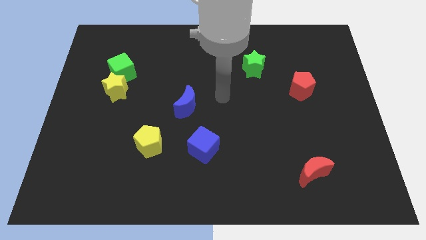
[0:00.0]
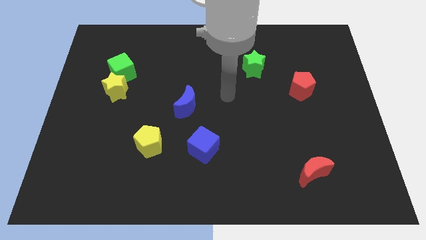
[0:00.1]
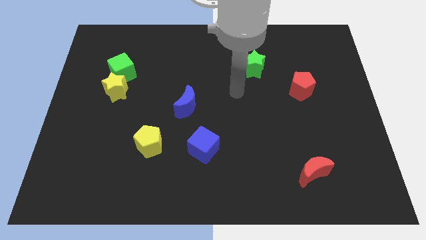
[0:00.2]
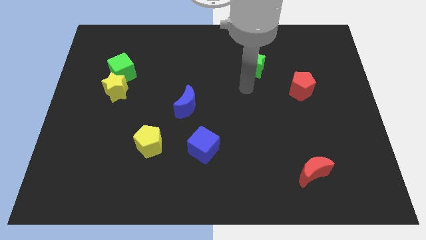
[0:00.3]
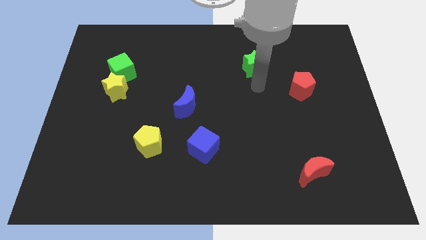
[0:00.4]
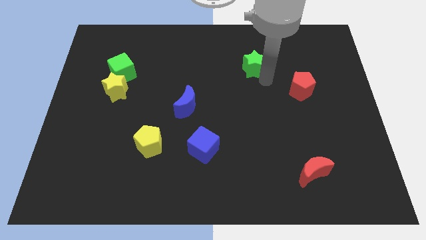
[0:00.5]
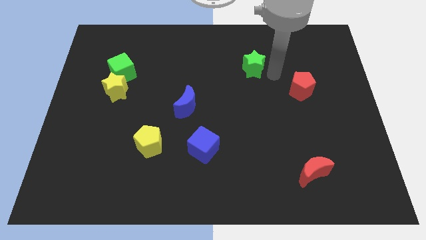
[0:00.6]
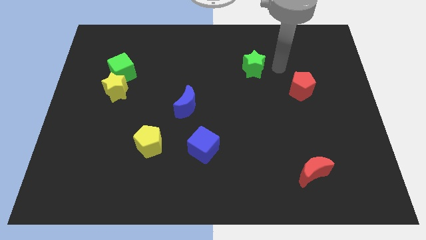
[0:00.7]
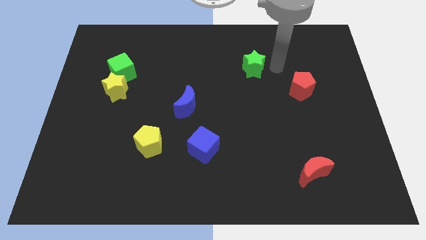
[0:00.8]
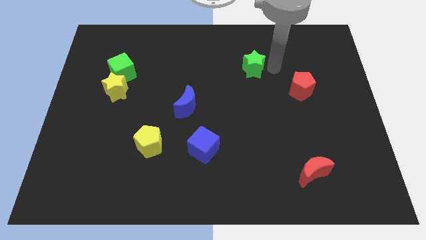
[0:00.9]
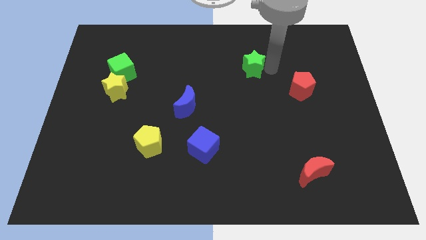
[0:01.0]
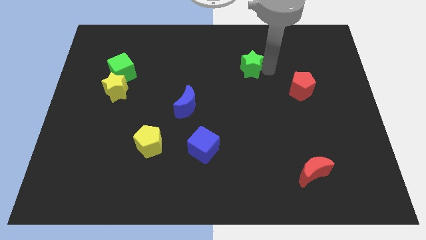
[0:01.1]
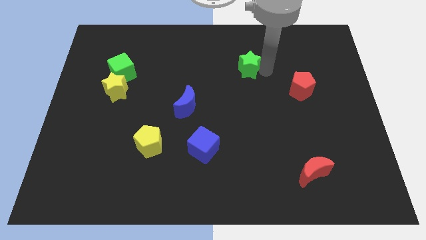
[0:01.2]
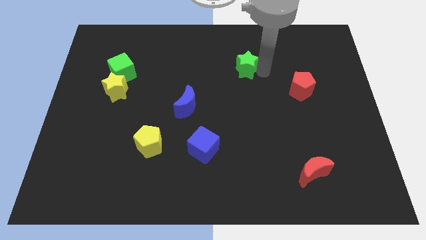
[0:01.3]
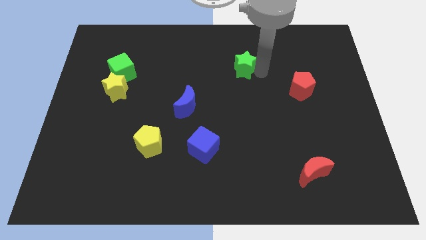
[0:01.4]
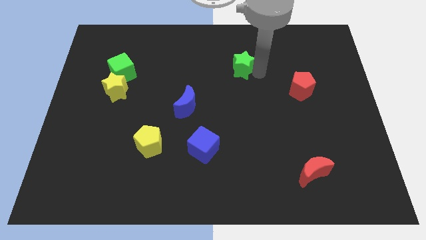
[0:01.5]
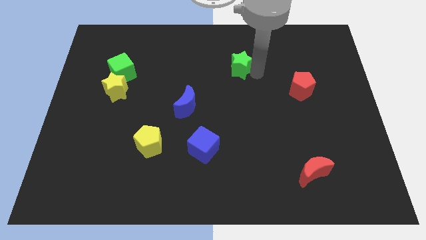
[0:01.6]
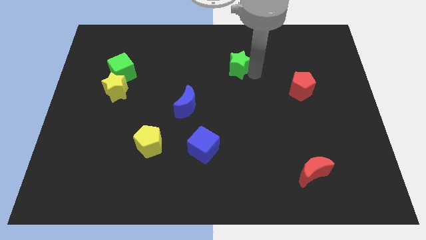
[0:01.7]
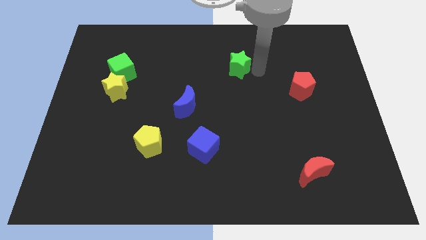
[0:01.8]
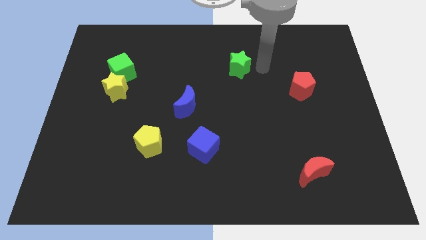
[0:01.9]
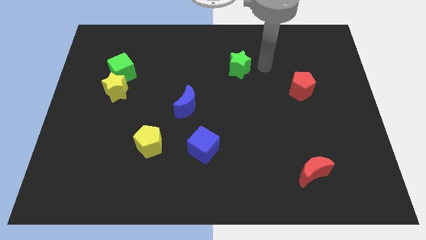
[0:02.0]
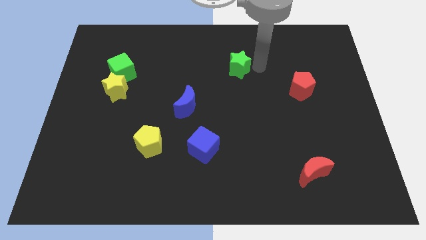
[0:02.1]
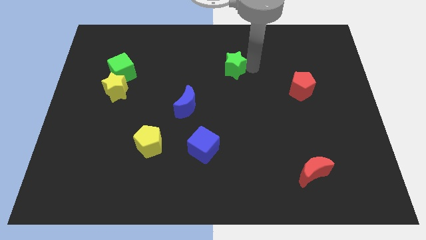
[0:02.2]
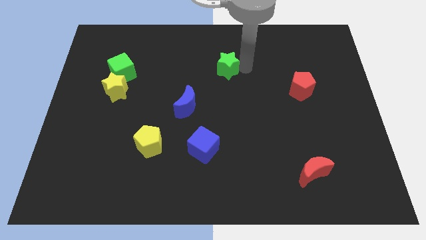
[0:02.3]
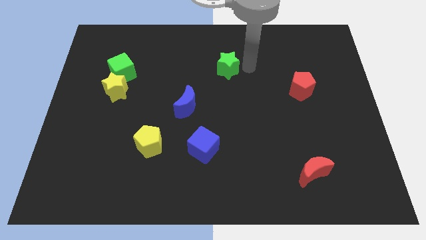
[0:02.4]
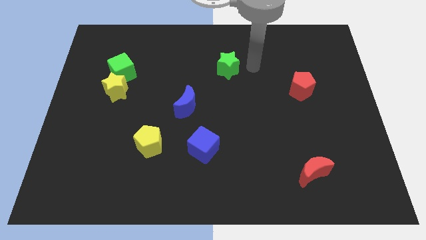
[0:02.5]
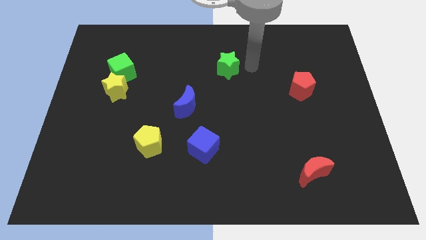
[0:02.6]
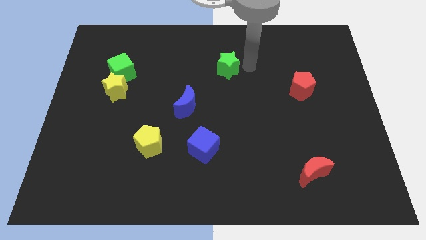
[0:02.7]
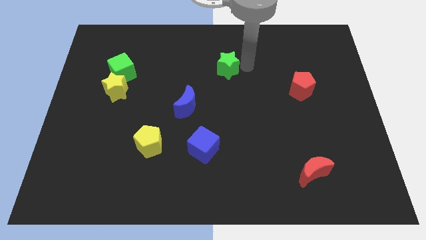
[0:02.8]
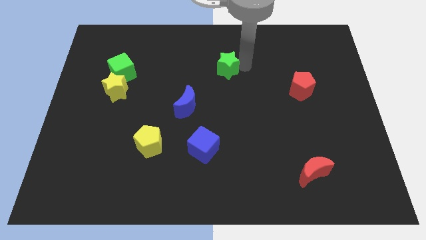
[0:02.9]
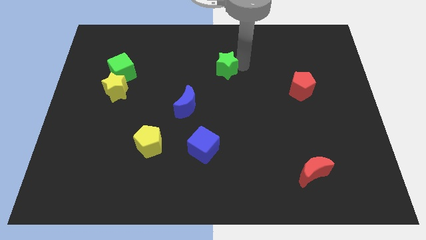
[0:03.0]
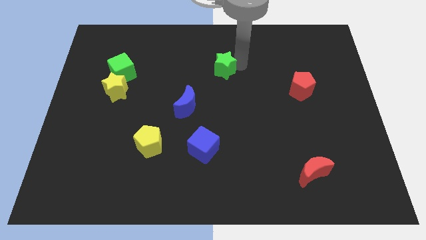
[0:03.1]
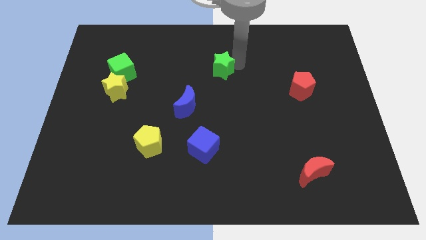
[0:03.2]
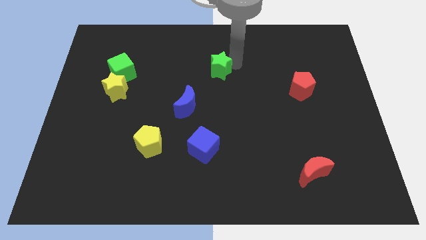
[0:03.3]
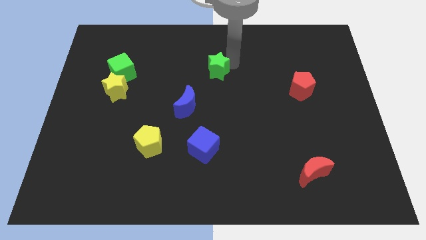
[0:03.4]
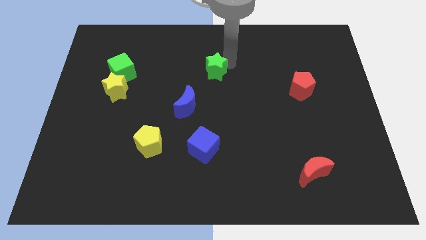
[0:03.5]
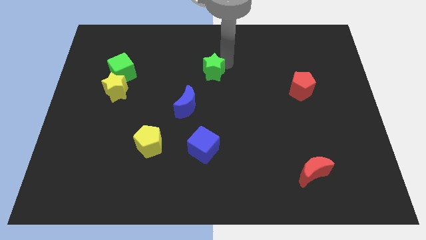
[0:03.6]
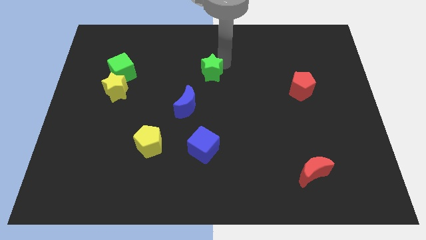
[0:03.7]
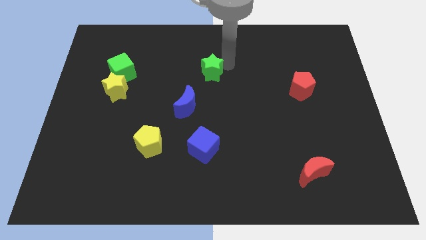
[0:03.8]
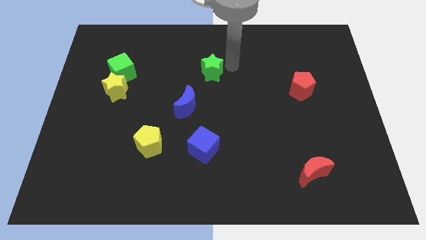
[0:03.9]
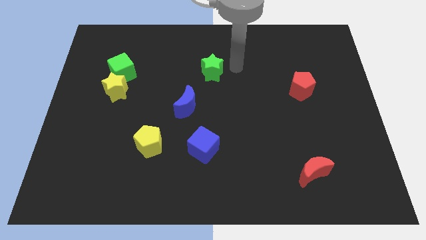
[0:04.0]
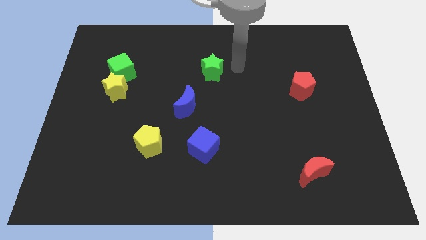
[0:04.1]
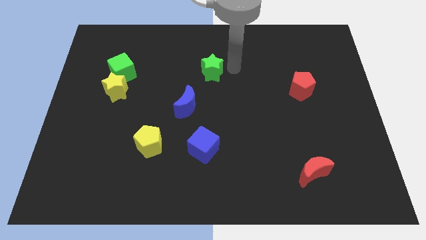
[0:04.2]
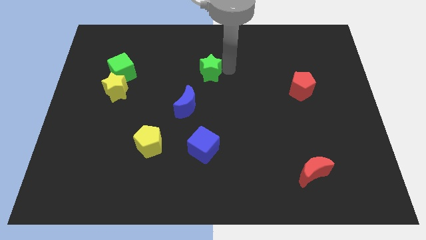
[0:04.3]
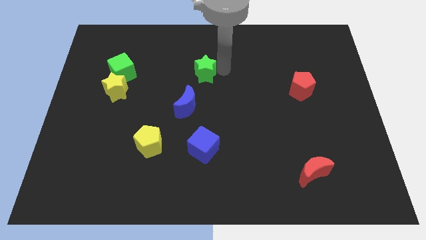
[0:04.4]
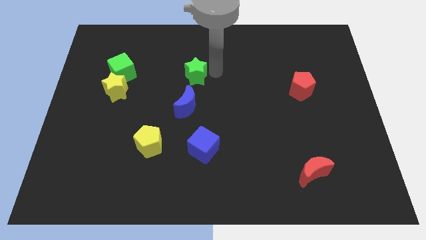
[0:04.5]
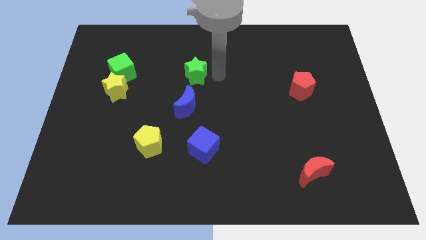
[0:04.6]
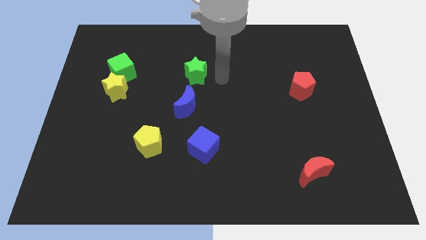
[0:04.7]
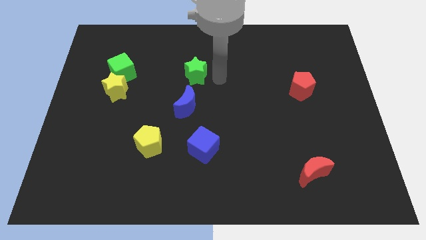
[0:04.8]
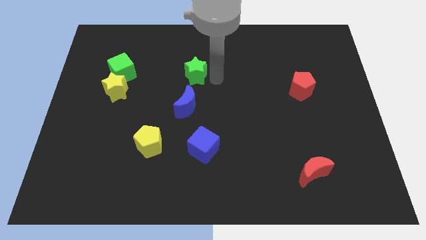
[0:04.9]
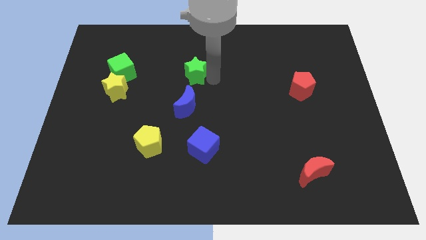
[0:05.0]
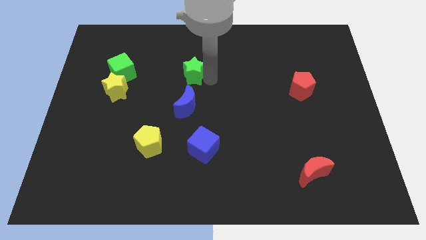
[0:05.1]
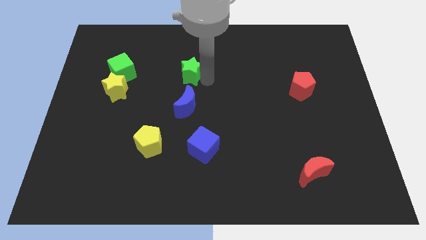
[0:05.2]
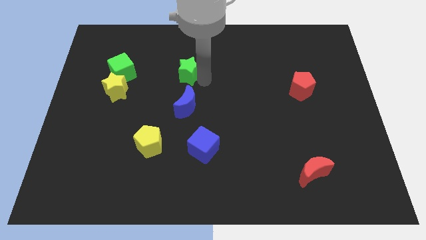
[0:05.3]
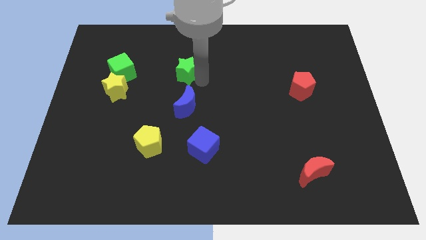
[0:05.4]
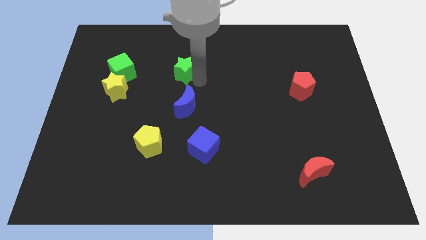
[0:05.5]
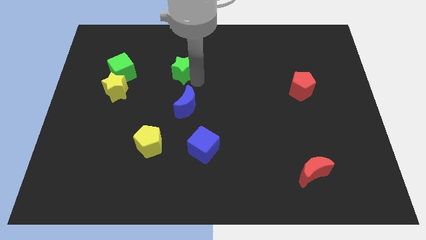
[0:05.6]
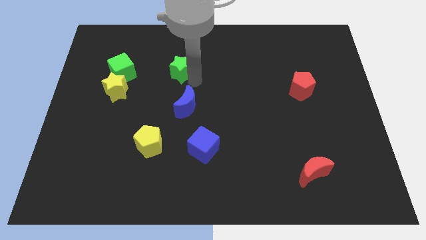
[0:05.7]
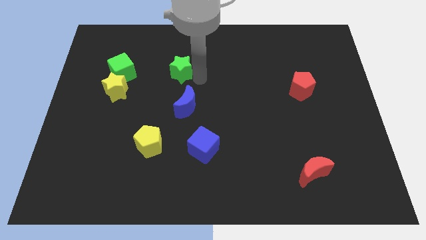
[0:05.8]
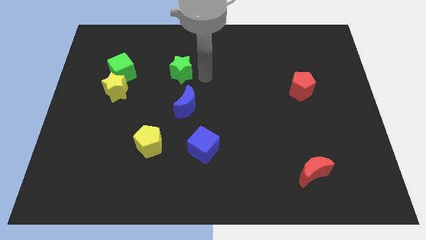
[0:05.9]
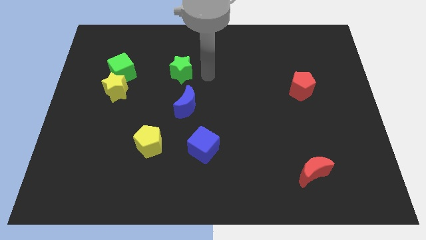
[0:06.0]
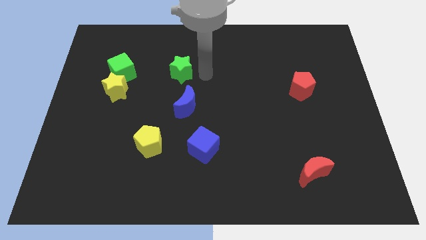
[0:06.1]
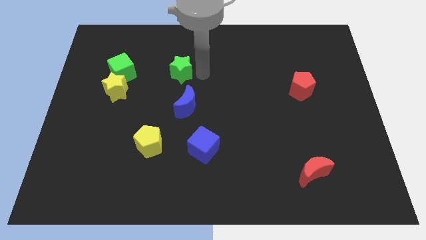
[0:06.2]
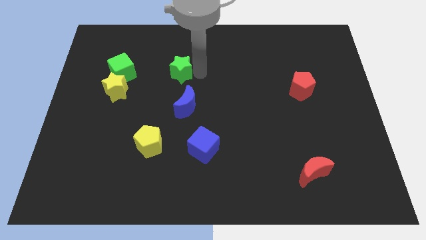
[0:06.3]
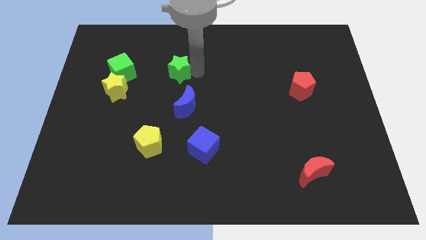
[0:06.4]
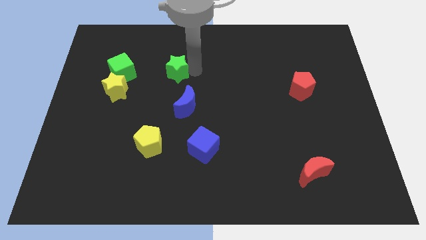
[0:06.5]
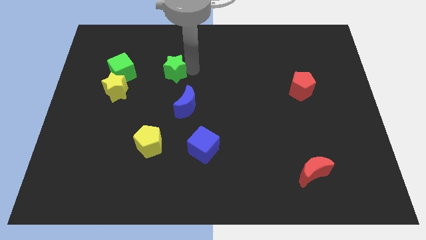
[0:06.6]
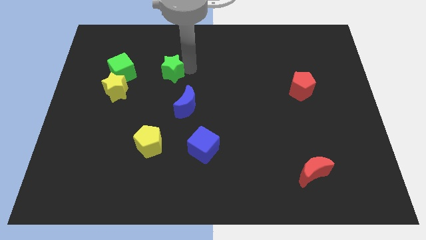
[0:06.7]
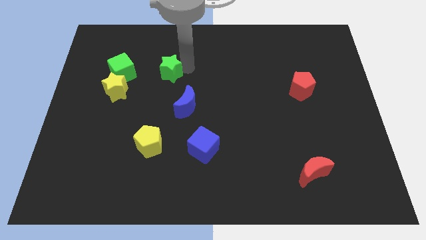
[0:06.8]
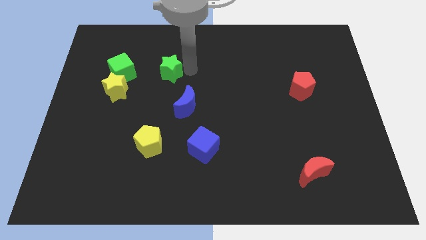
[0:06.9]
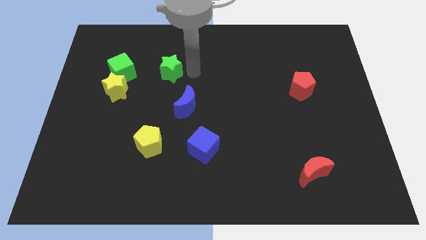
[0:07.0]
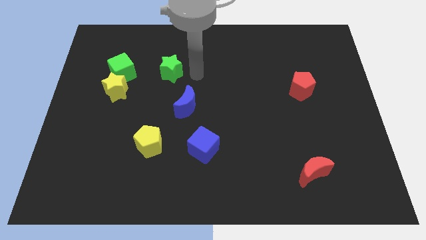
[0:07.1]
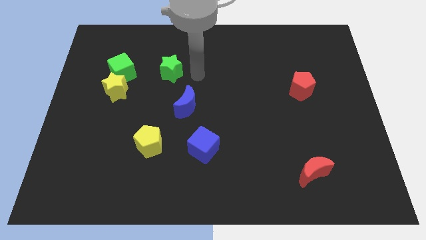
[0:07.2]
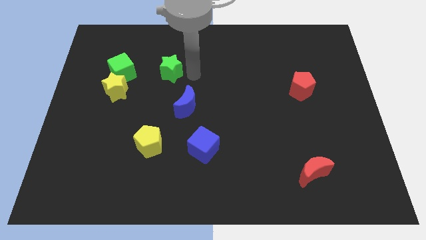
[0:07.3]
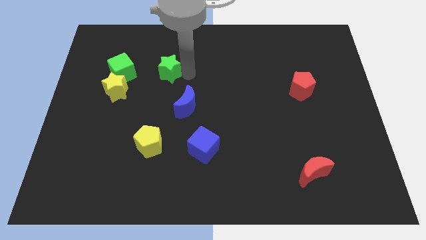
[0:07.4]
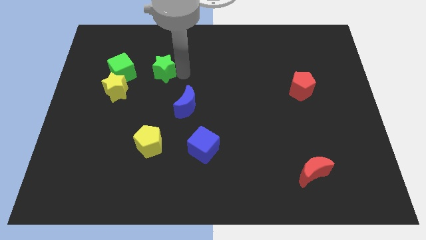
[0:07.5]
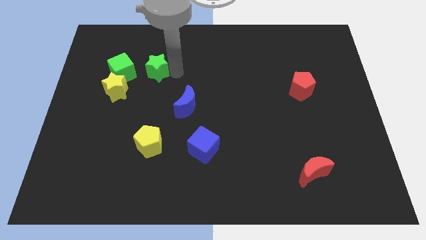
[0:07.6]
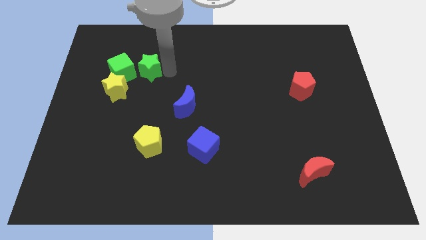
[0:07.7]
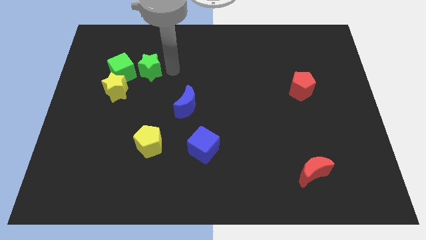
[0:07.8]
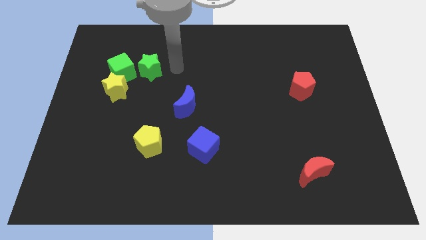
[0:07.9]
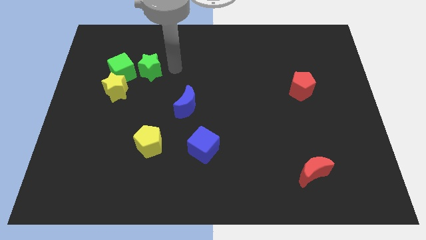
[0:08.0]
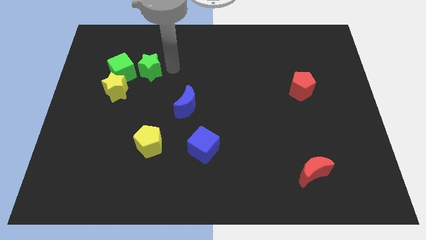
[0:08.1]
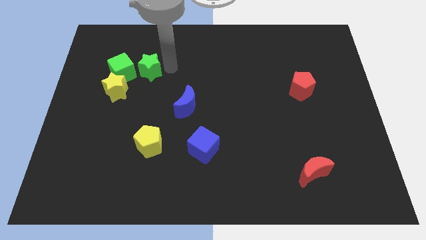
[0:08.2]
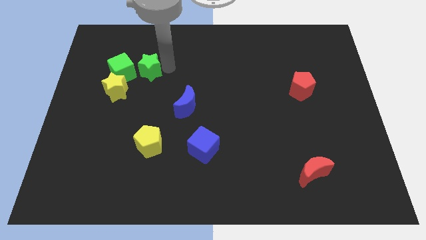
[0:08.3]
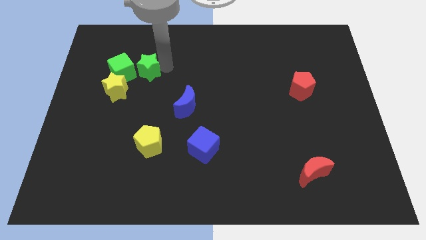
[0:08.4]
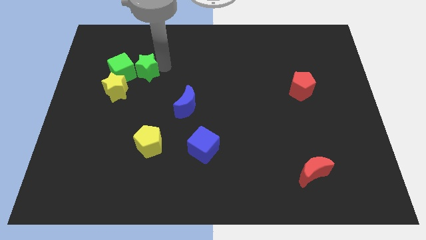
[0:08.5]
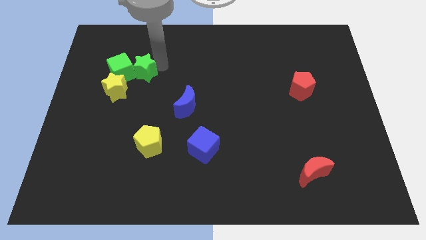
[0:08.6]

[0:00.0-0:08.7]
put the green star close to the green cube
